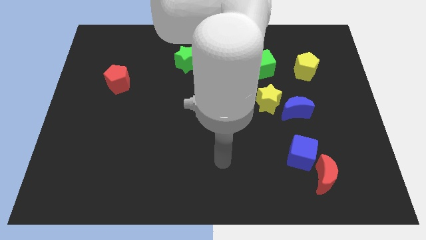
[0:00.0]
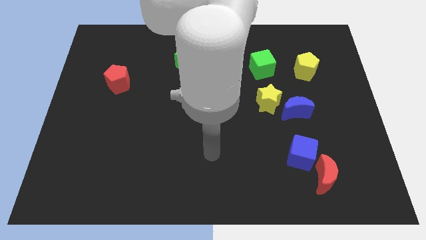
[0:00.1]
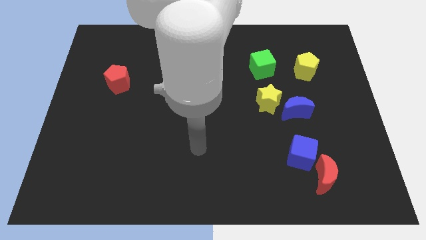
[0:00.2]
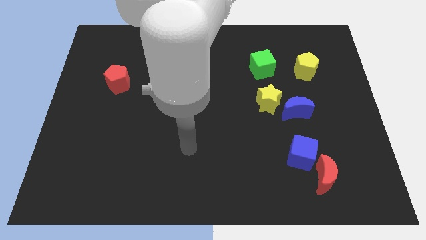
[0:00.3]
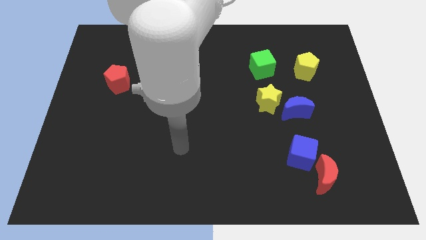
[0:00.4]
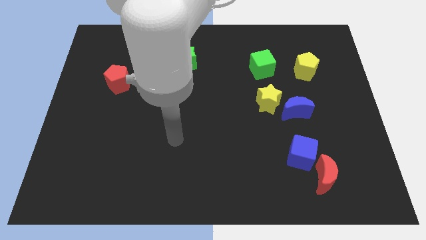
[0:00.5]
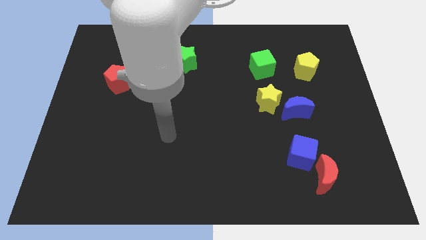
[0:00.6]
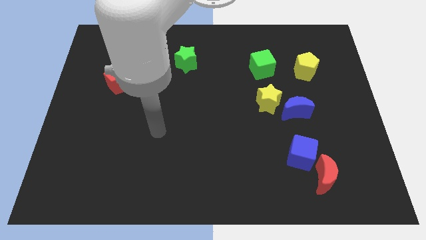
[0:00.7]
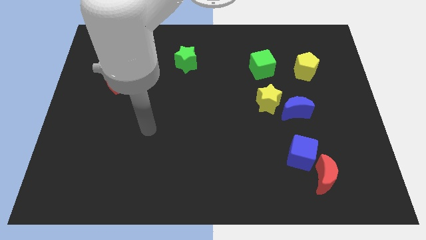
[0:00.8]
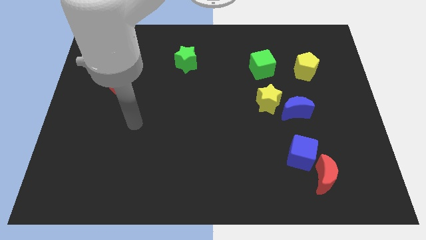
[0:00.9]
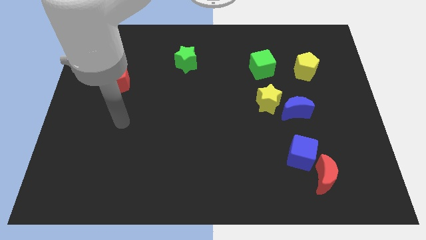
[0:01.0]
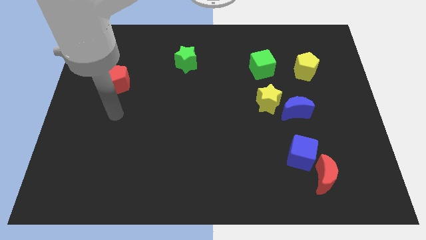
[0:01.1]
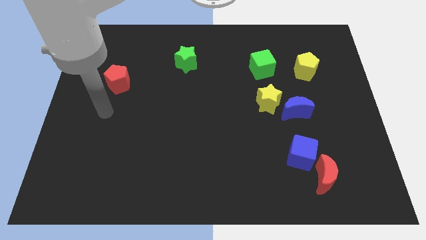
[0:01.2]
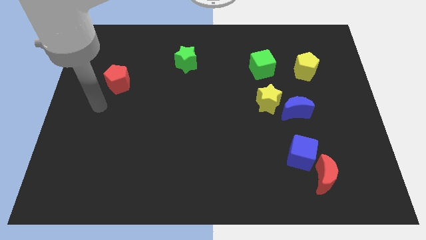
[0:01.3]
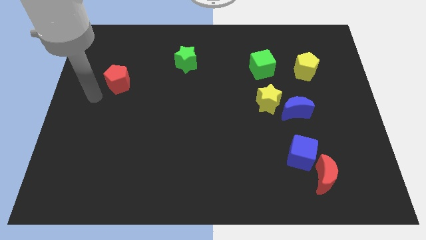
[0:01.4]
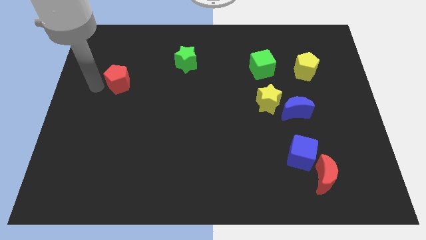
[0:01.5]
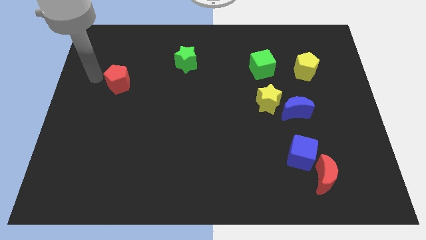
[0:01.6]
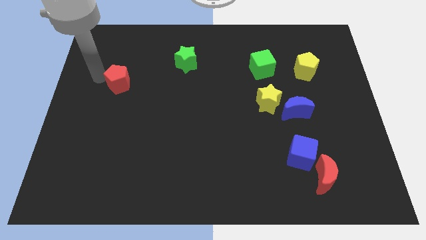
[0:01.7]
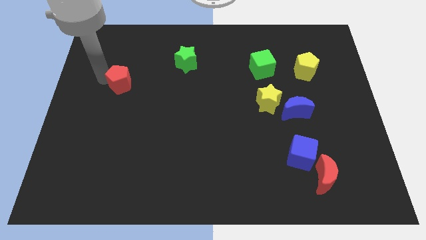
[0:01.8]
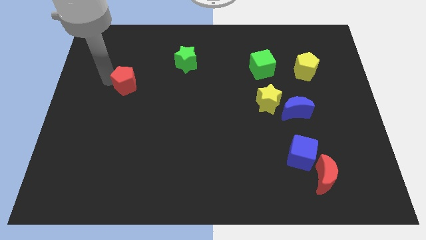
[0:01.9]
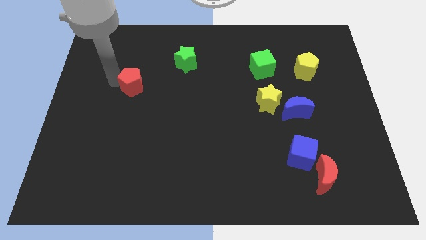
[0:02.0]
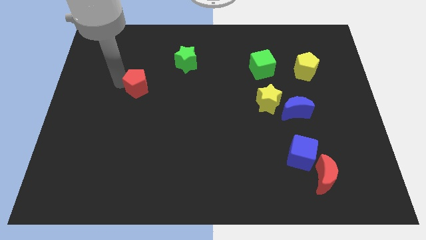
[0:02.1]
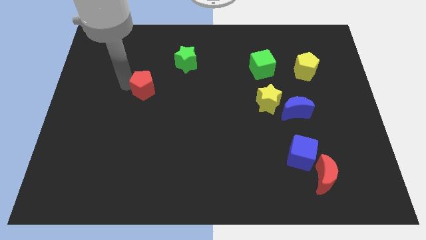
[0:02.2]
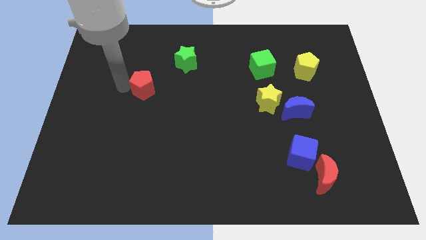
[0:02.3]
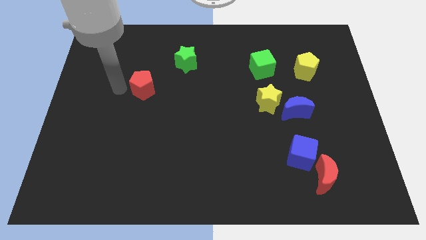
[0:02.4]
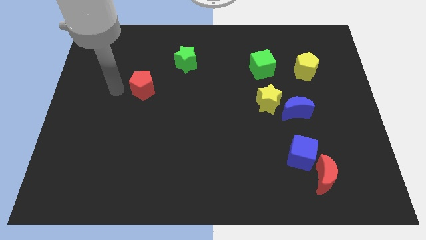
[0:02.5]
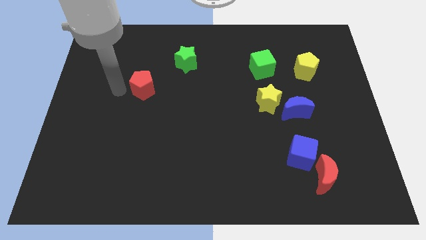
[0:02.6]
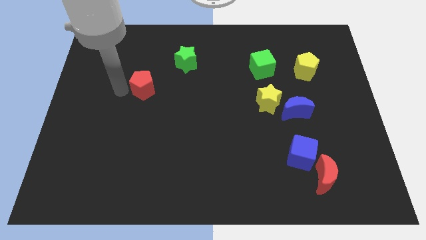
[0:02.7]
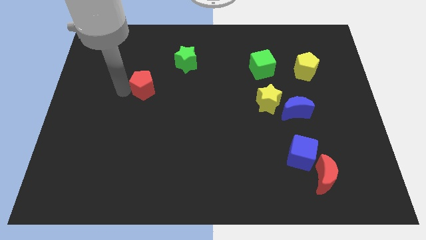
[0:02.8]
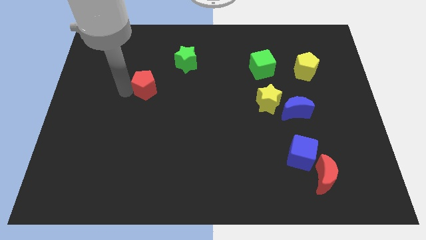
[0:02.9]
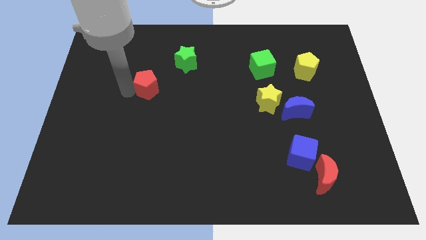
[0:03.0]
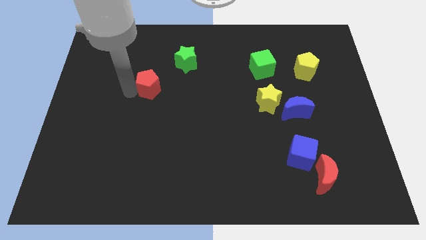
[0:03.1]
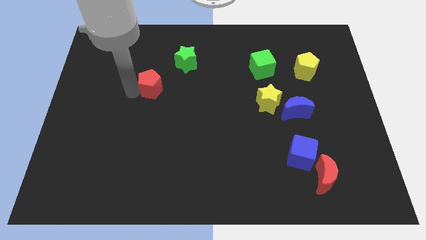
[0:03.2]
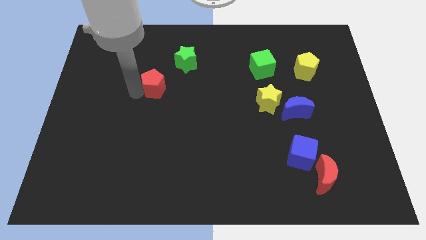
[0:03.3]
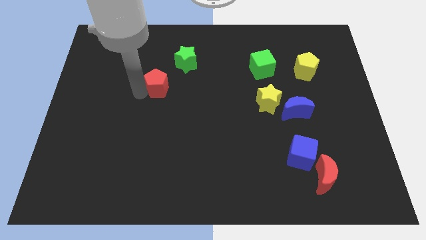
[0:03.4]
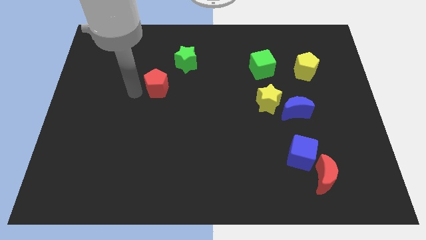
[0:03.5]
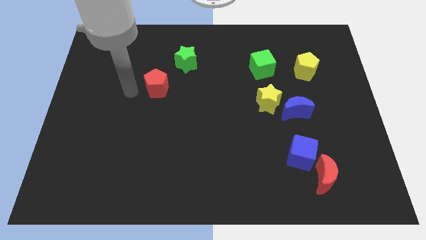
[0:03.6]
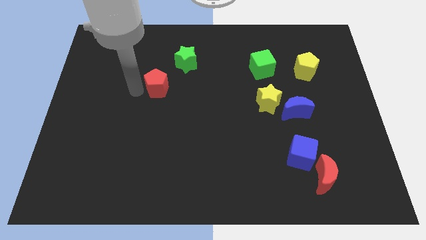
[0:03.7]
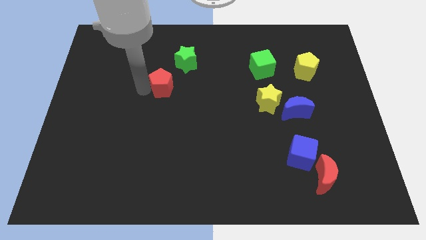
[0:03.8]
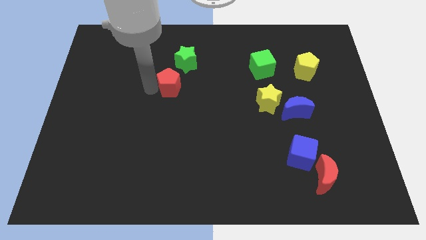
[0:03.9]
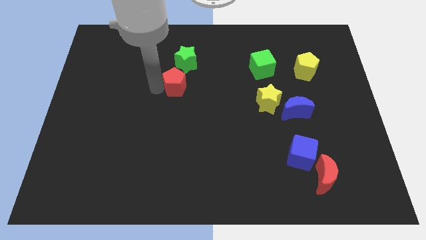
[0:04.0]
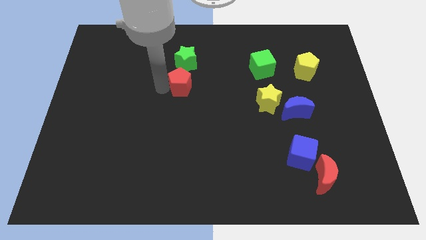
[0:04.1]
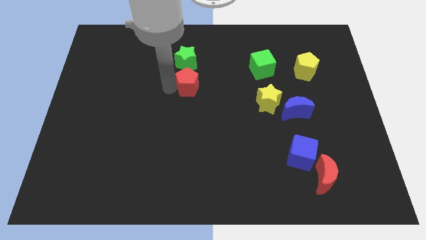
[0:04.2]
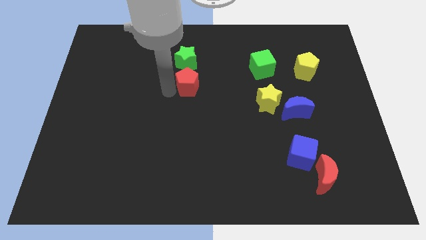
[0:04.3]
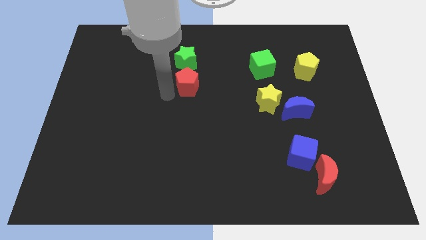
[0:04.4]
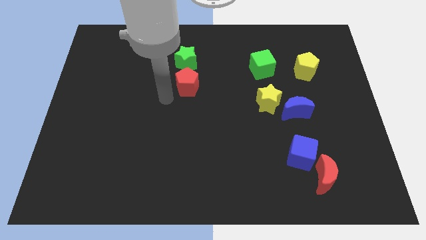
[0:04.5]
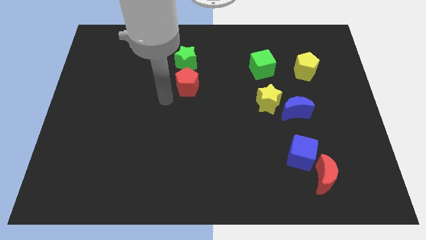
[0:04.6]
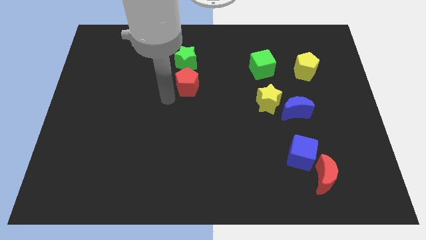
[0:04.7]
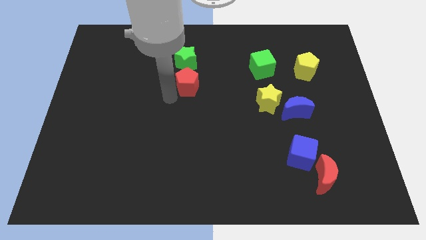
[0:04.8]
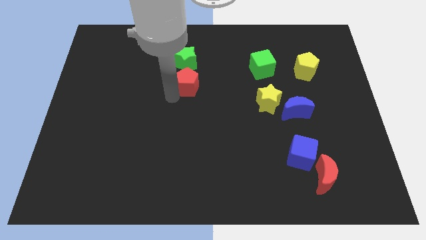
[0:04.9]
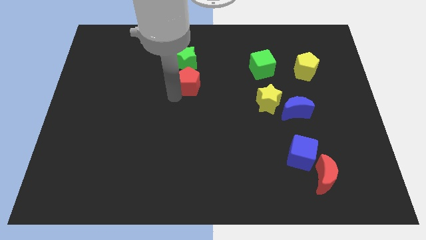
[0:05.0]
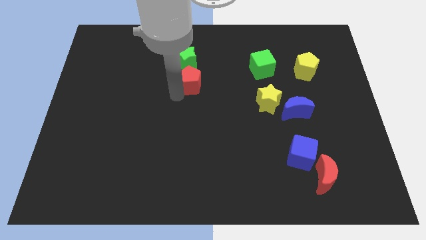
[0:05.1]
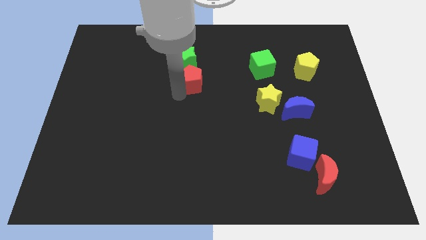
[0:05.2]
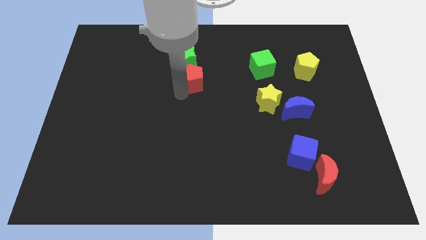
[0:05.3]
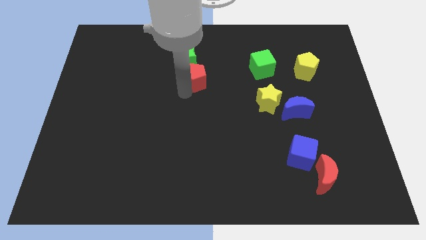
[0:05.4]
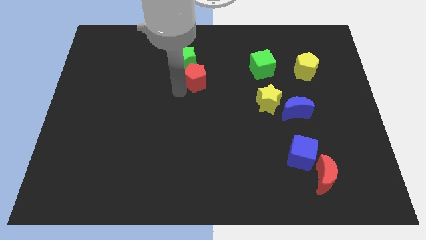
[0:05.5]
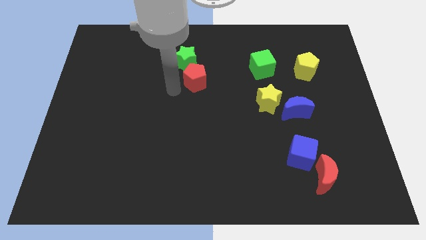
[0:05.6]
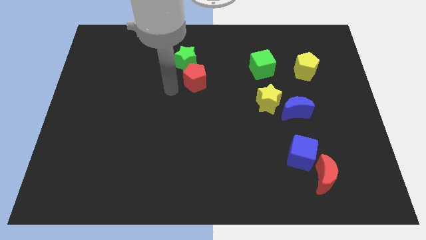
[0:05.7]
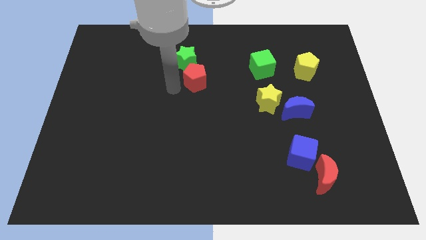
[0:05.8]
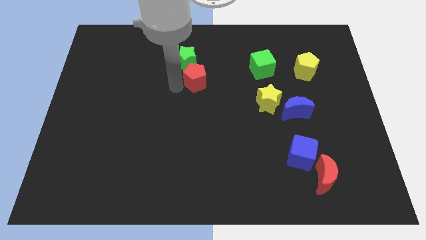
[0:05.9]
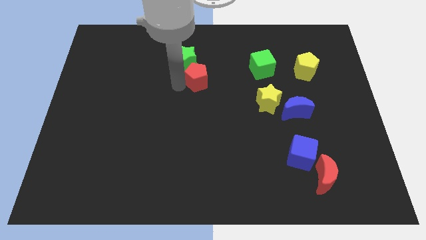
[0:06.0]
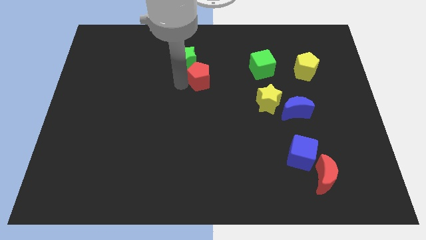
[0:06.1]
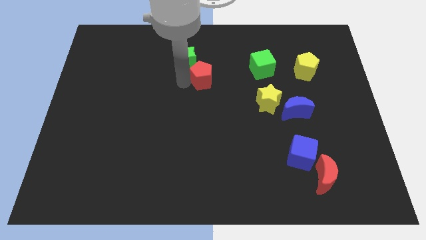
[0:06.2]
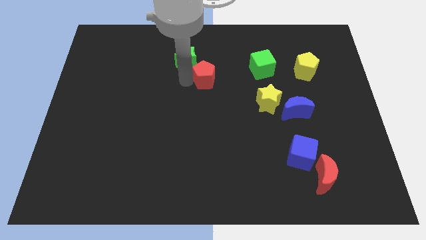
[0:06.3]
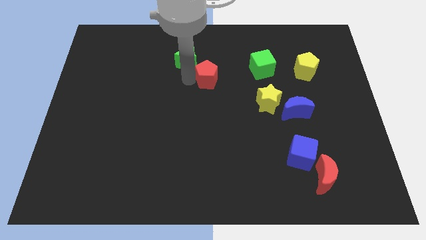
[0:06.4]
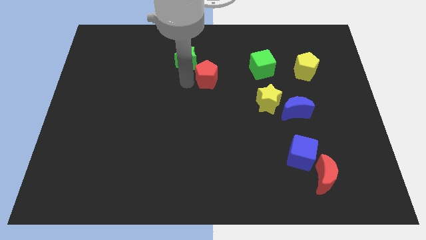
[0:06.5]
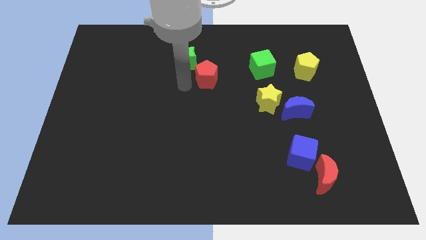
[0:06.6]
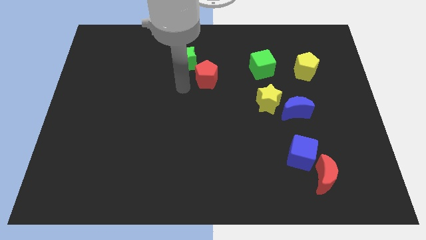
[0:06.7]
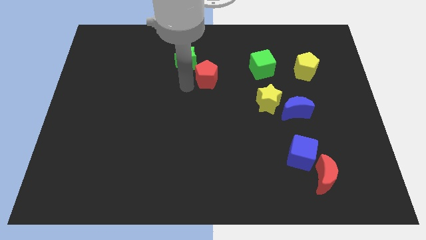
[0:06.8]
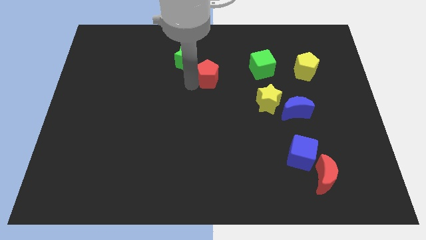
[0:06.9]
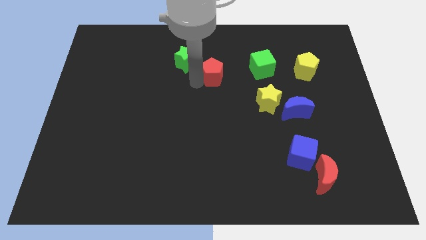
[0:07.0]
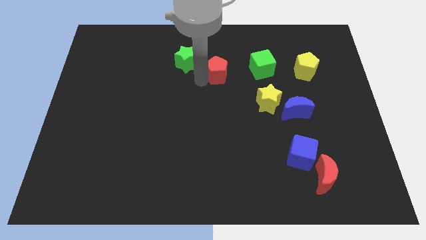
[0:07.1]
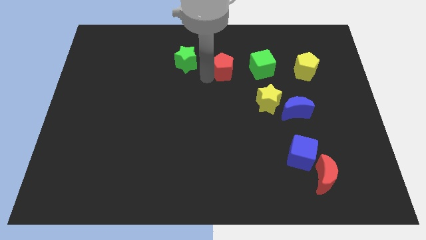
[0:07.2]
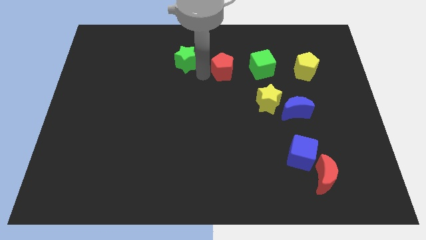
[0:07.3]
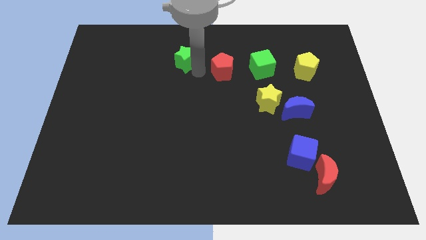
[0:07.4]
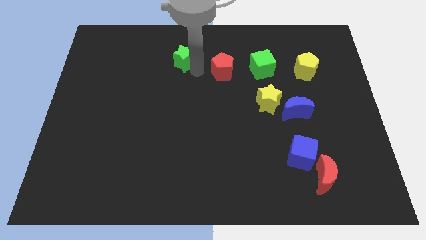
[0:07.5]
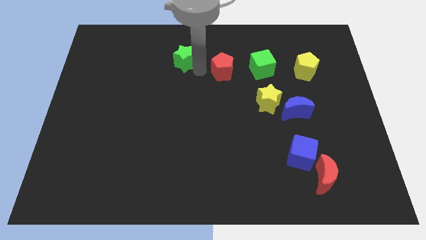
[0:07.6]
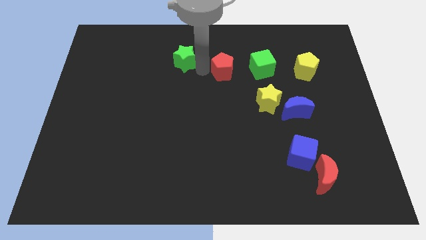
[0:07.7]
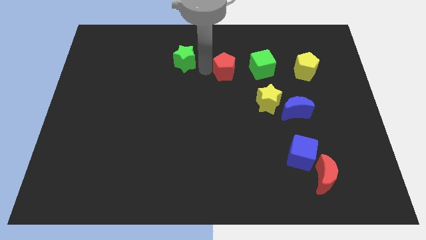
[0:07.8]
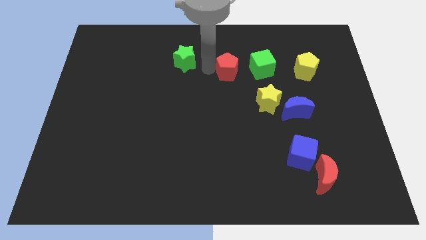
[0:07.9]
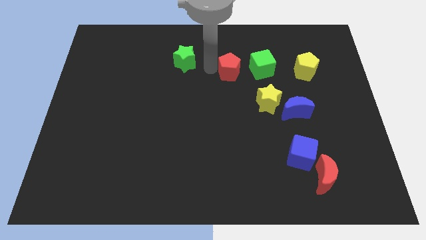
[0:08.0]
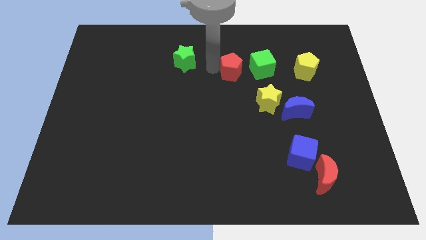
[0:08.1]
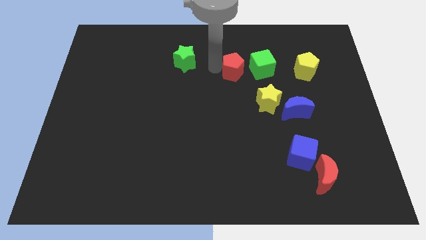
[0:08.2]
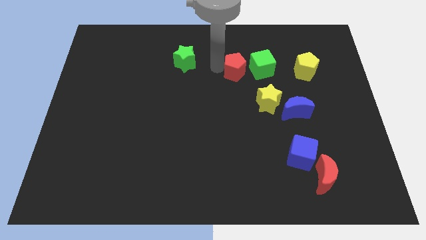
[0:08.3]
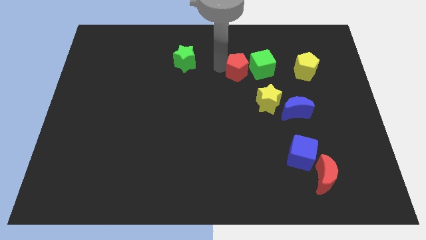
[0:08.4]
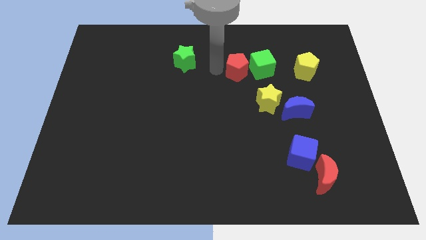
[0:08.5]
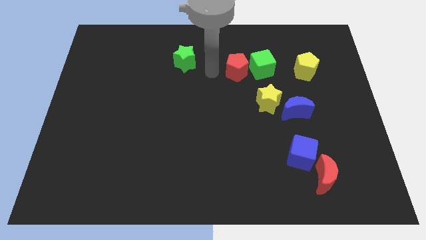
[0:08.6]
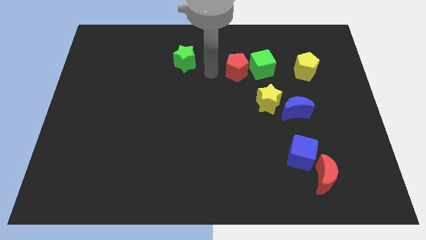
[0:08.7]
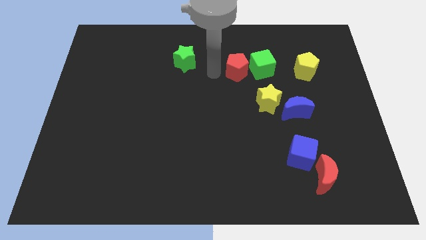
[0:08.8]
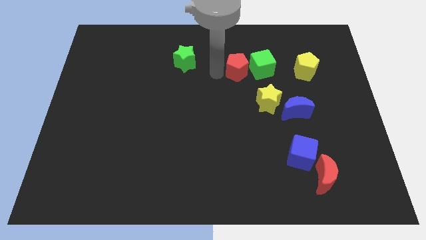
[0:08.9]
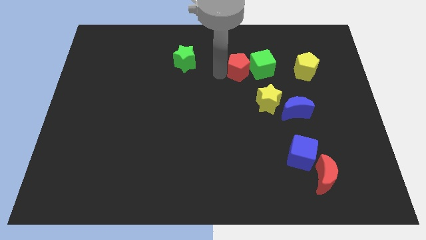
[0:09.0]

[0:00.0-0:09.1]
put the red pentagon towards the green cube
